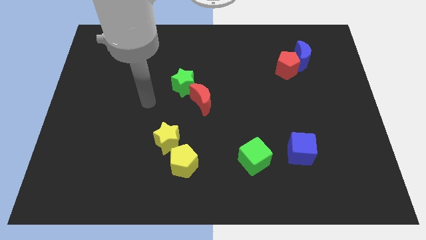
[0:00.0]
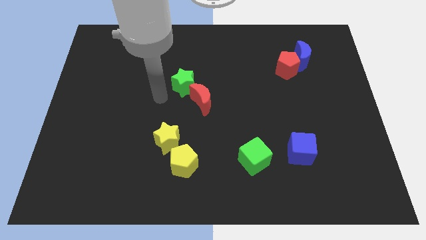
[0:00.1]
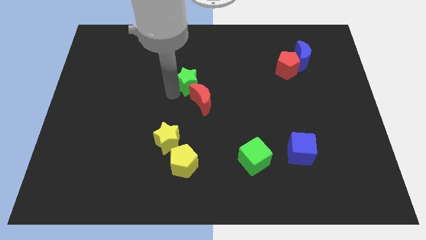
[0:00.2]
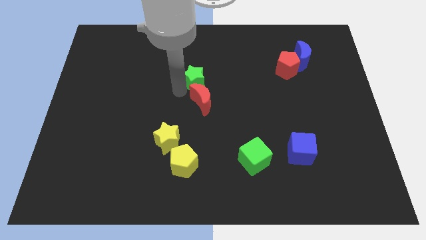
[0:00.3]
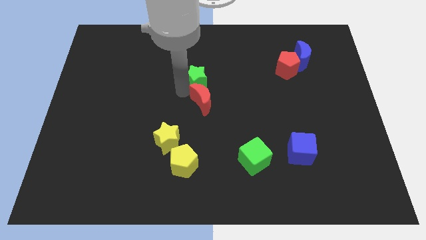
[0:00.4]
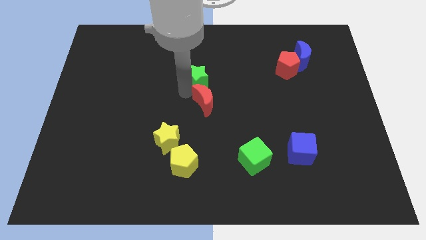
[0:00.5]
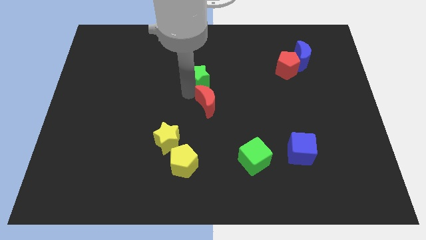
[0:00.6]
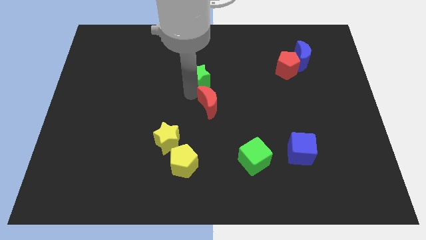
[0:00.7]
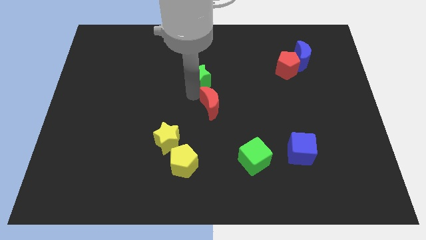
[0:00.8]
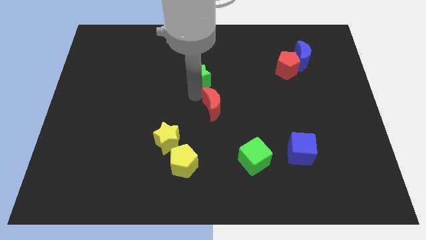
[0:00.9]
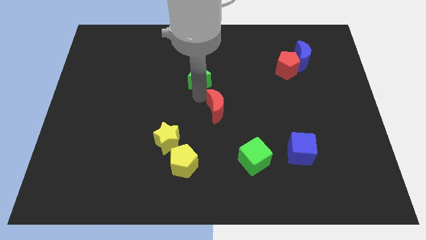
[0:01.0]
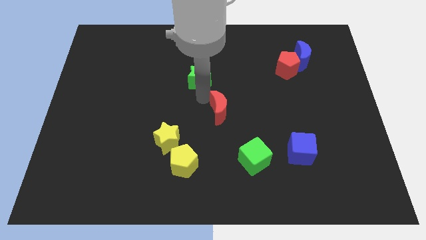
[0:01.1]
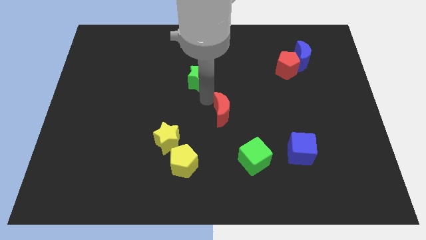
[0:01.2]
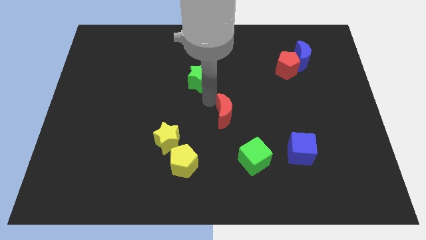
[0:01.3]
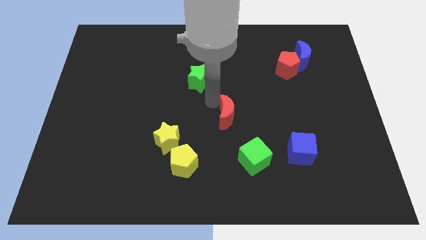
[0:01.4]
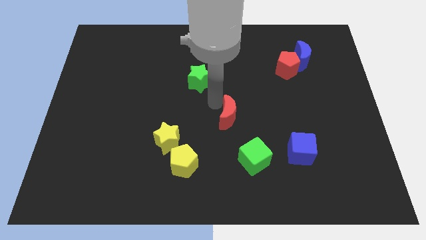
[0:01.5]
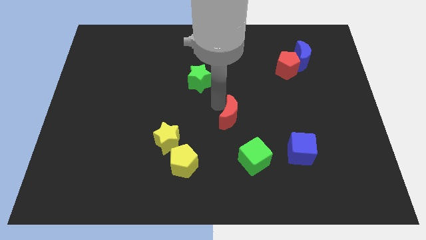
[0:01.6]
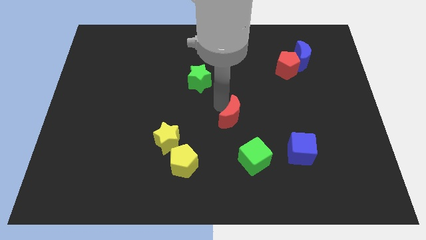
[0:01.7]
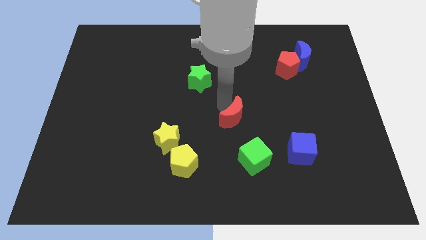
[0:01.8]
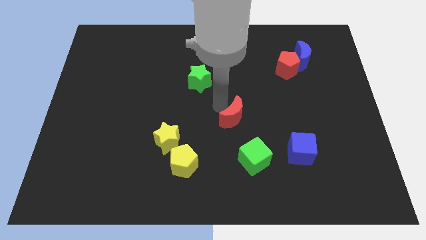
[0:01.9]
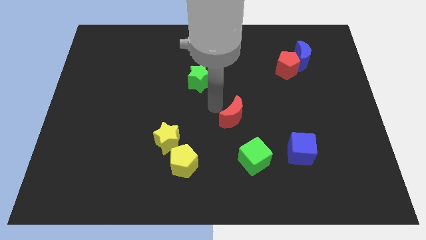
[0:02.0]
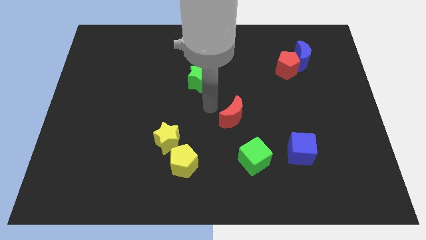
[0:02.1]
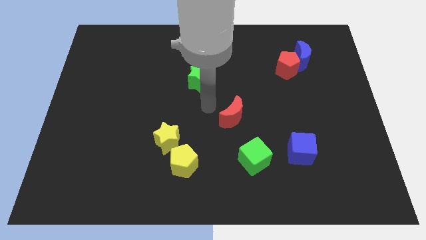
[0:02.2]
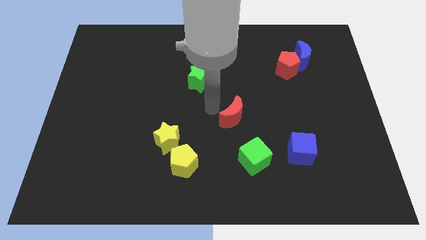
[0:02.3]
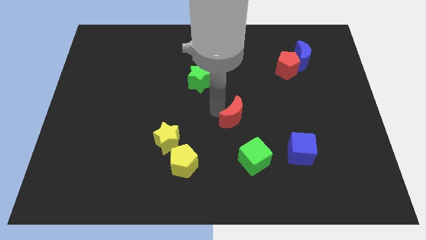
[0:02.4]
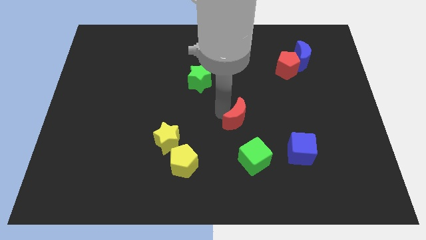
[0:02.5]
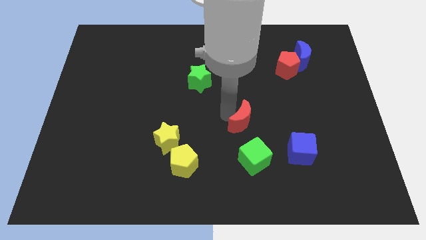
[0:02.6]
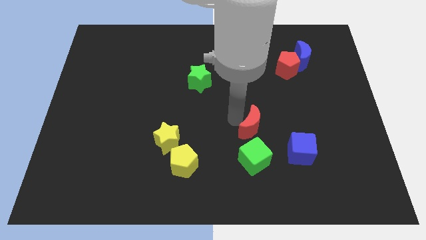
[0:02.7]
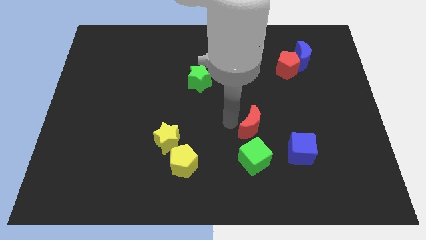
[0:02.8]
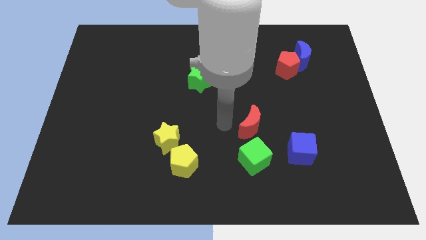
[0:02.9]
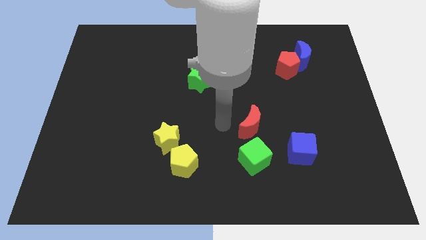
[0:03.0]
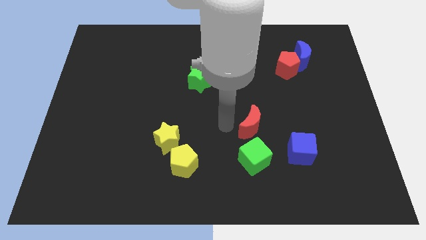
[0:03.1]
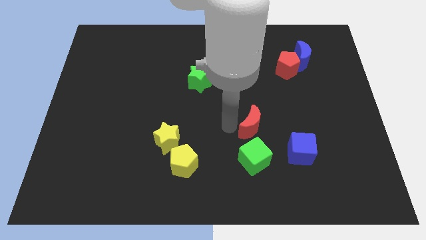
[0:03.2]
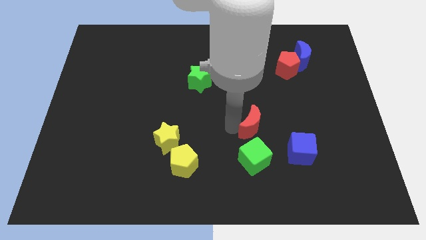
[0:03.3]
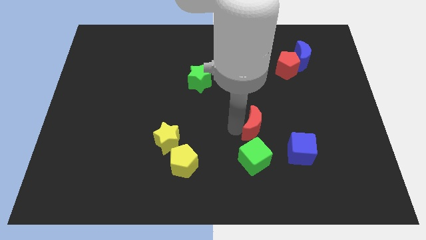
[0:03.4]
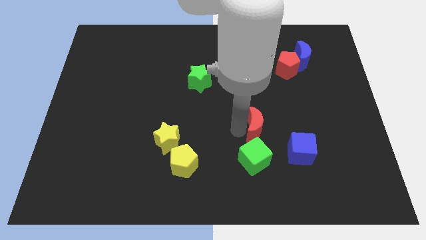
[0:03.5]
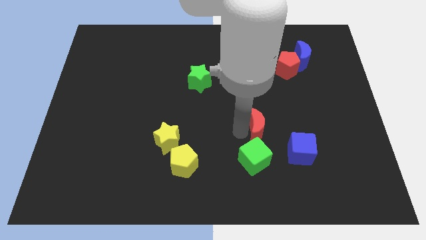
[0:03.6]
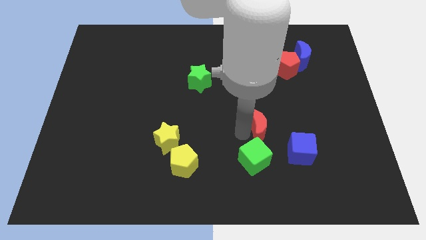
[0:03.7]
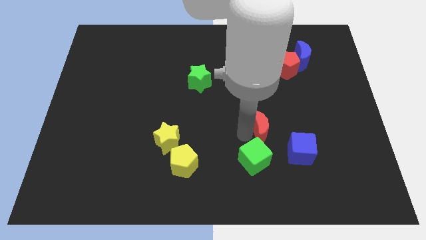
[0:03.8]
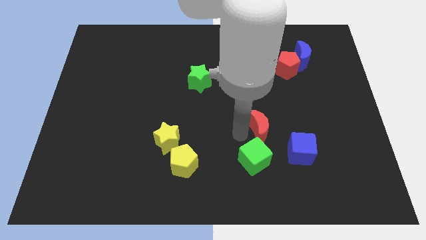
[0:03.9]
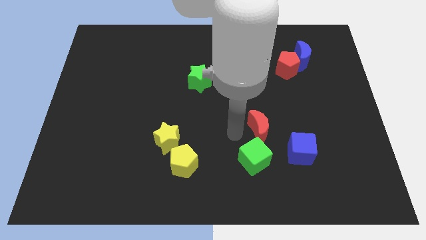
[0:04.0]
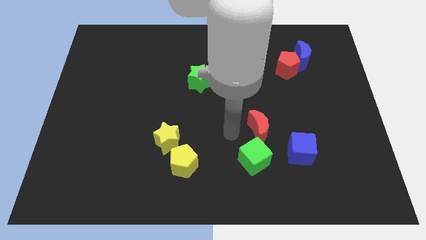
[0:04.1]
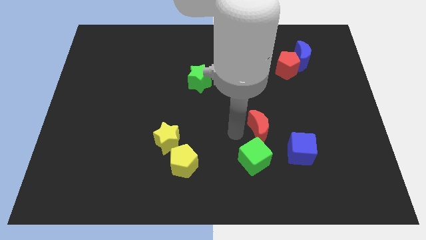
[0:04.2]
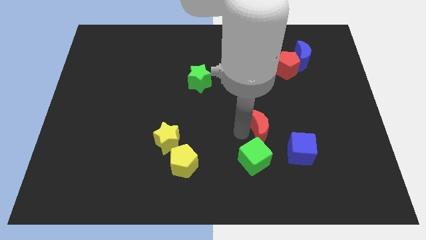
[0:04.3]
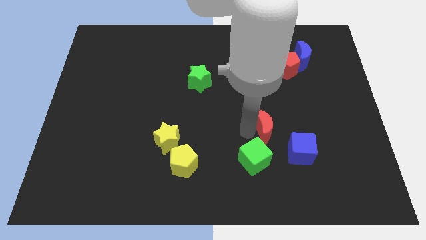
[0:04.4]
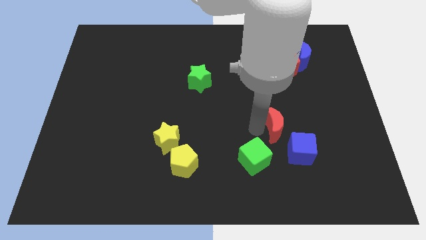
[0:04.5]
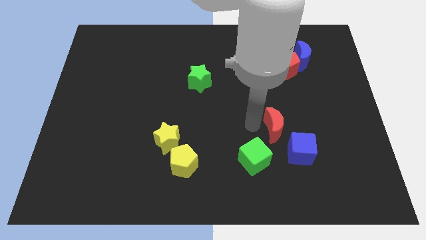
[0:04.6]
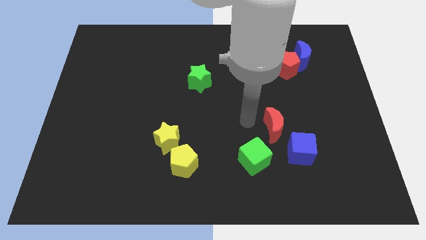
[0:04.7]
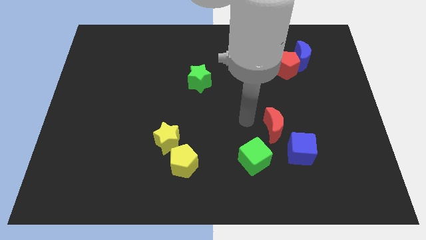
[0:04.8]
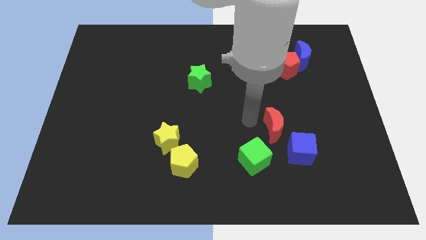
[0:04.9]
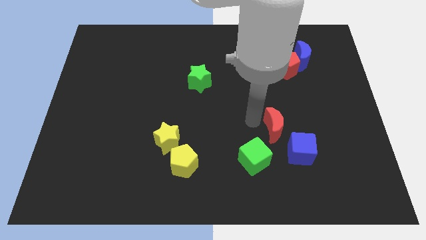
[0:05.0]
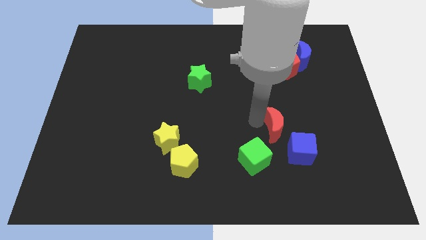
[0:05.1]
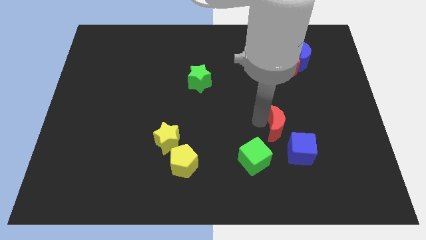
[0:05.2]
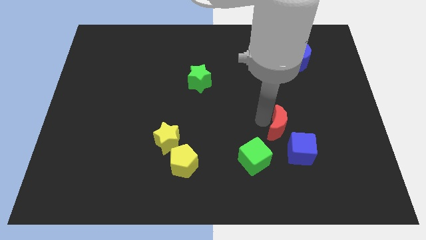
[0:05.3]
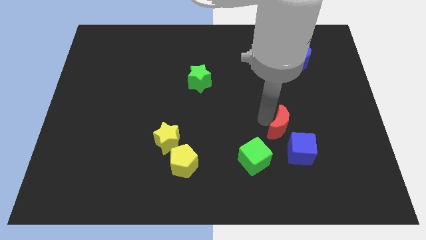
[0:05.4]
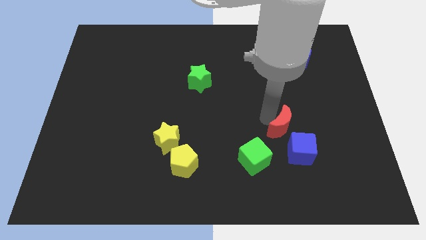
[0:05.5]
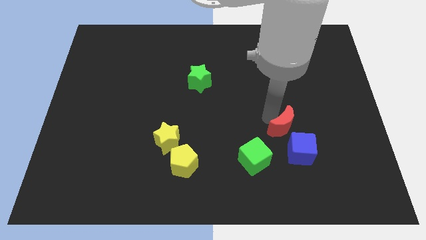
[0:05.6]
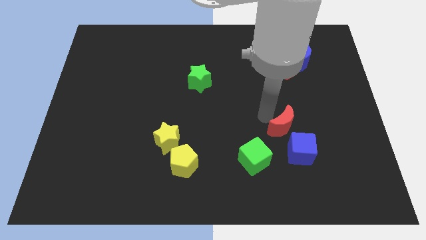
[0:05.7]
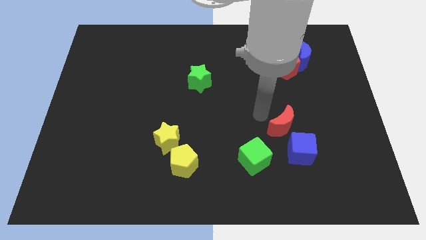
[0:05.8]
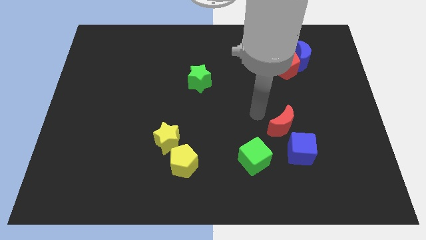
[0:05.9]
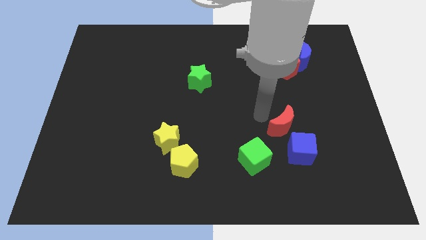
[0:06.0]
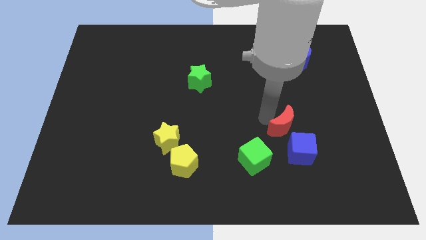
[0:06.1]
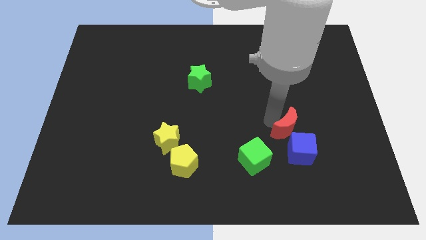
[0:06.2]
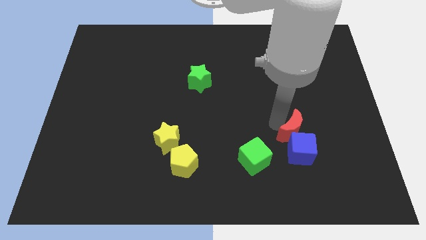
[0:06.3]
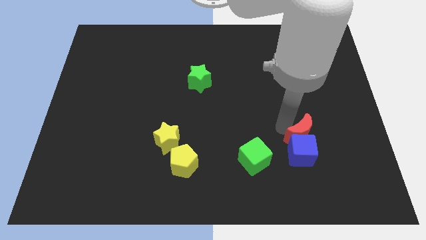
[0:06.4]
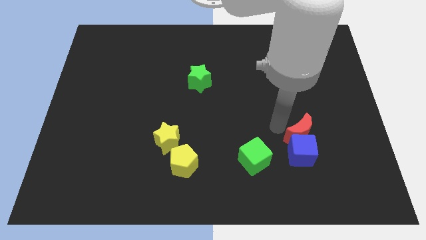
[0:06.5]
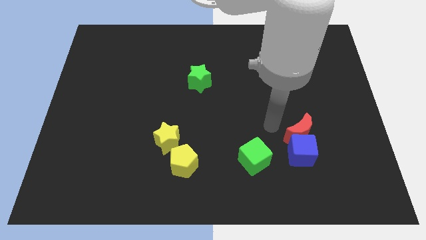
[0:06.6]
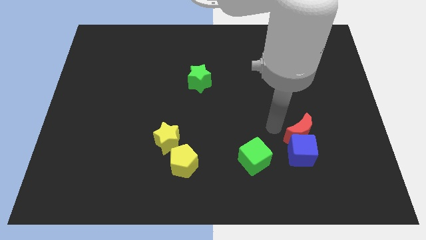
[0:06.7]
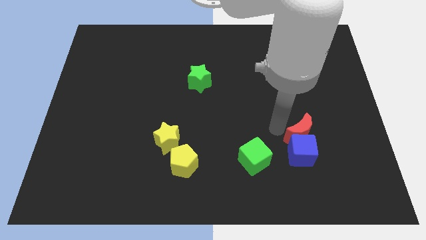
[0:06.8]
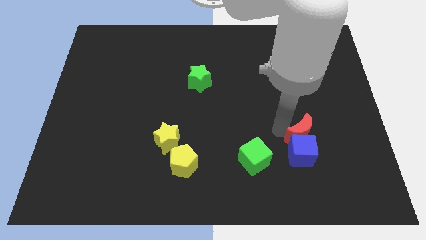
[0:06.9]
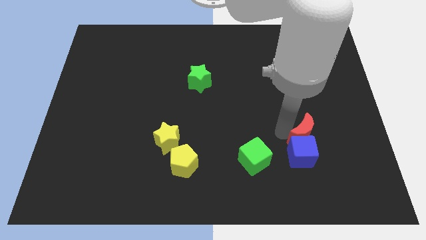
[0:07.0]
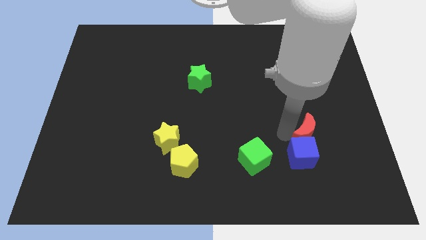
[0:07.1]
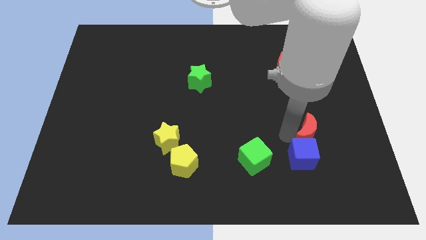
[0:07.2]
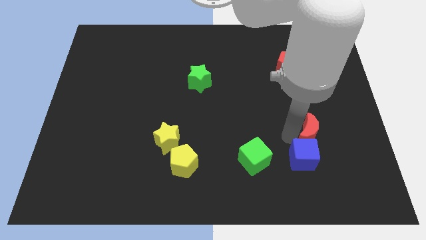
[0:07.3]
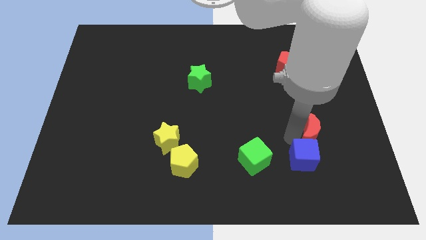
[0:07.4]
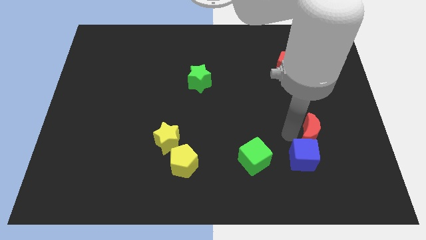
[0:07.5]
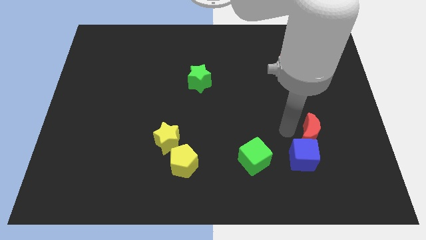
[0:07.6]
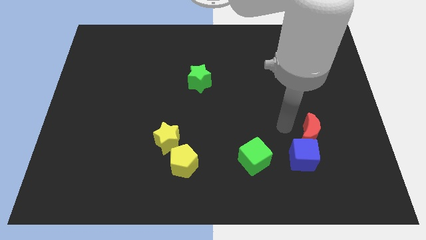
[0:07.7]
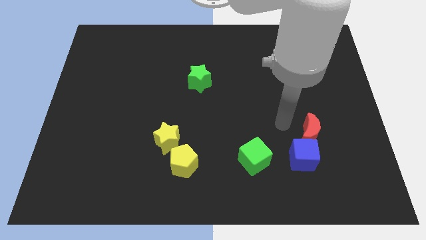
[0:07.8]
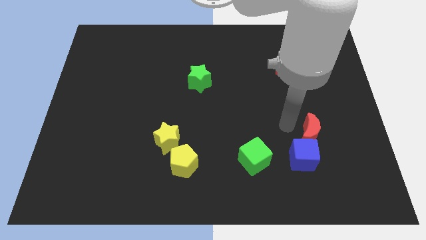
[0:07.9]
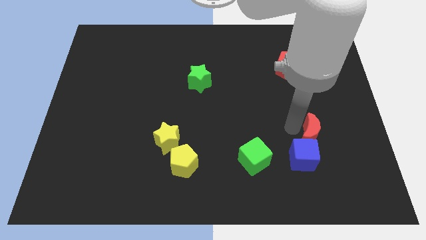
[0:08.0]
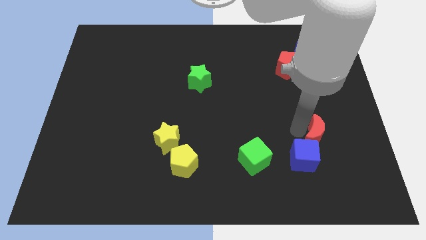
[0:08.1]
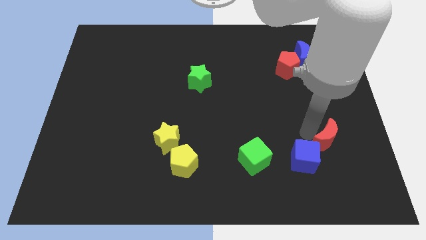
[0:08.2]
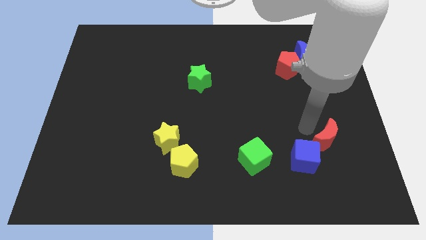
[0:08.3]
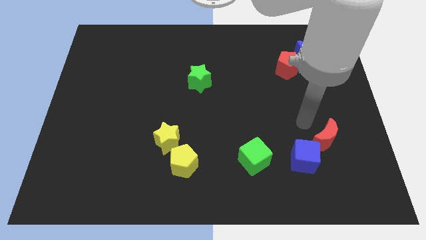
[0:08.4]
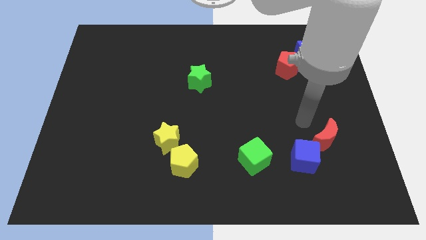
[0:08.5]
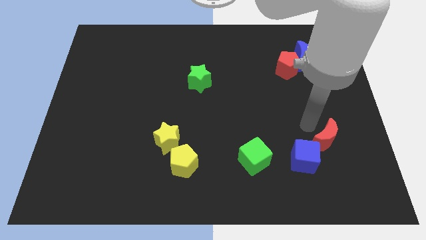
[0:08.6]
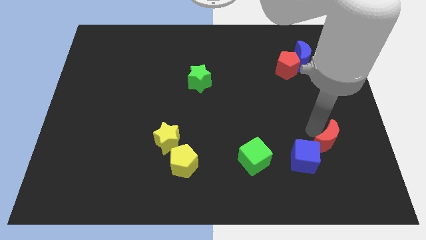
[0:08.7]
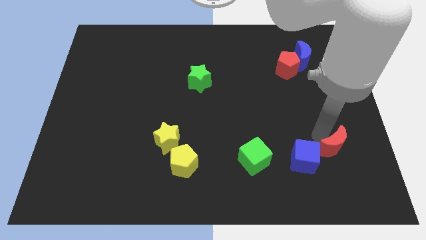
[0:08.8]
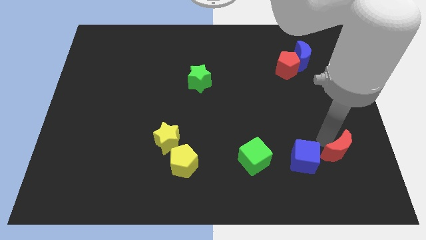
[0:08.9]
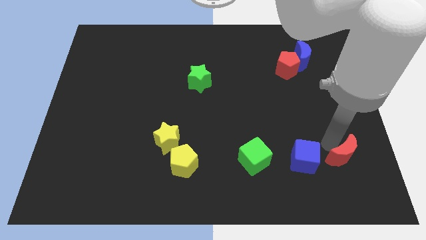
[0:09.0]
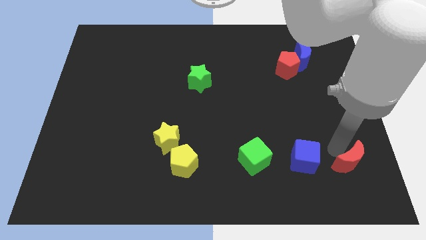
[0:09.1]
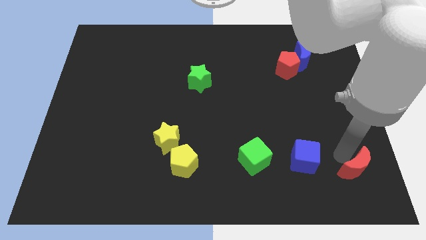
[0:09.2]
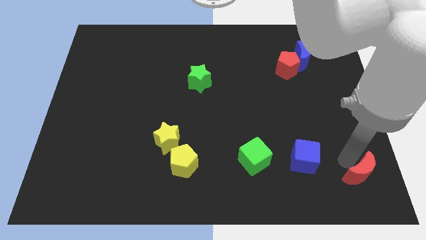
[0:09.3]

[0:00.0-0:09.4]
move the red moon to the bottom right
